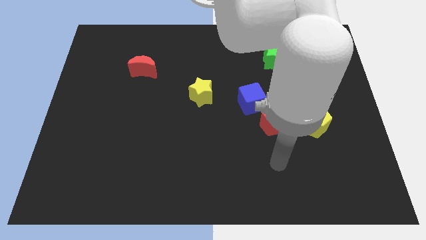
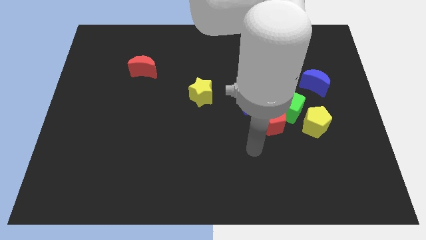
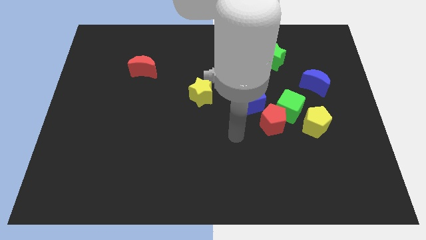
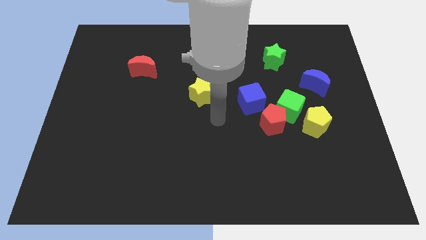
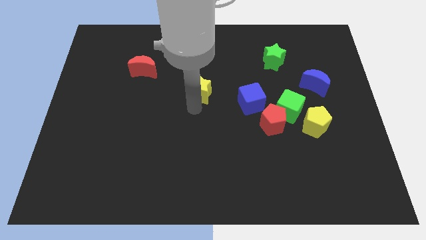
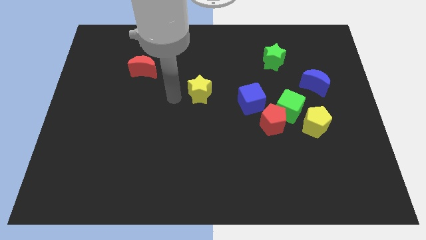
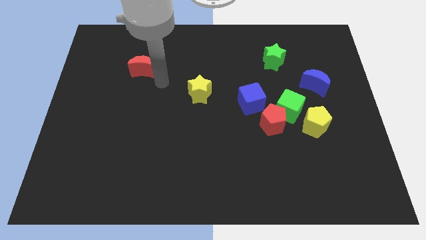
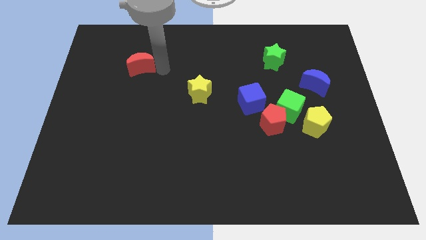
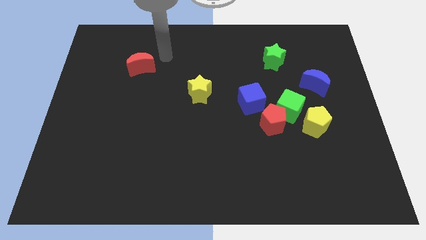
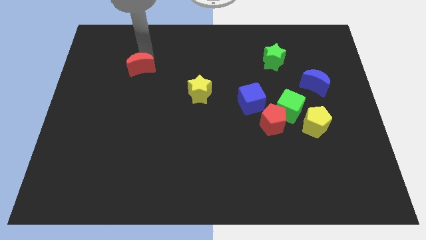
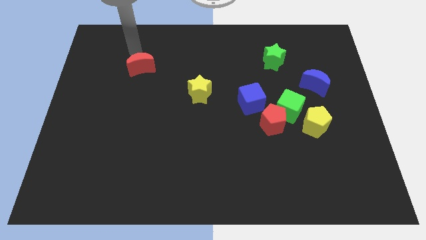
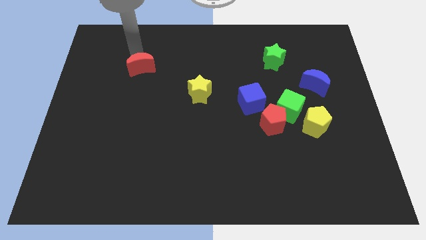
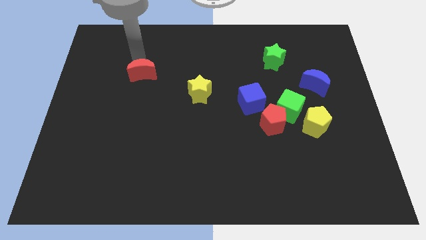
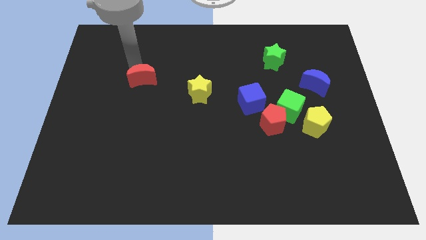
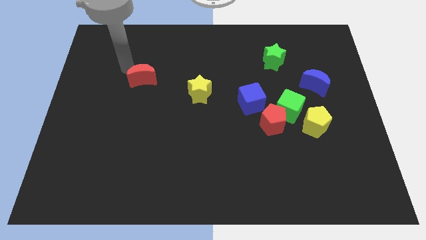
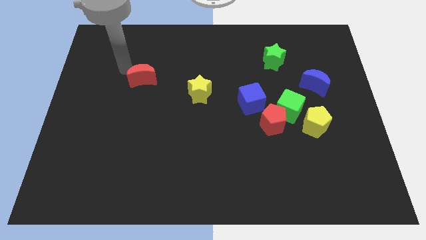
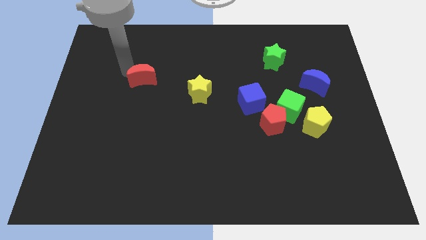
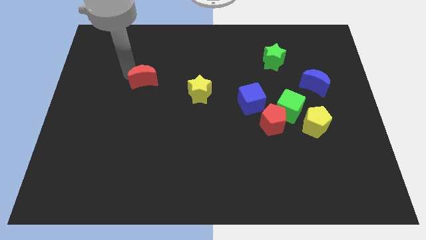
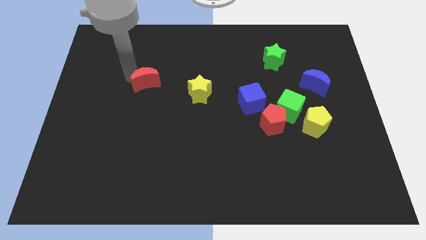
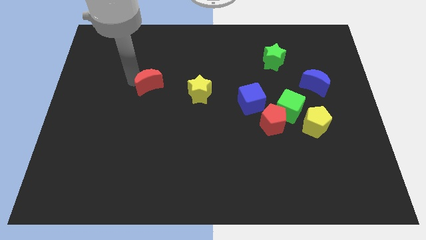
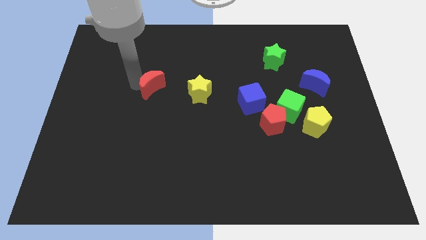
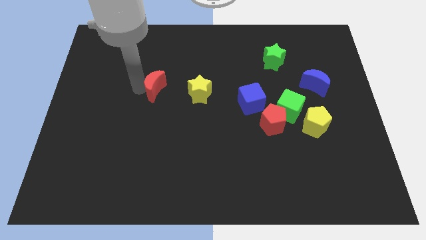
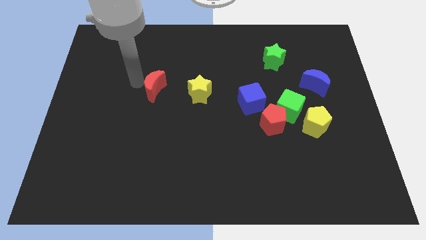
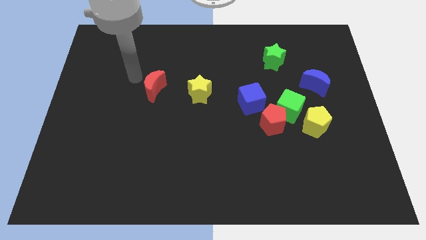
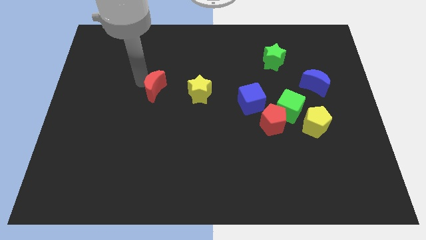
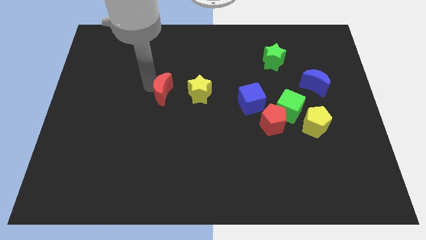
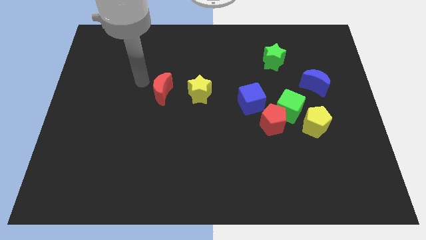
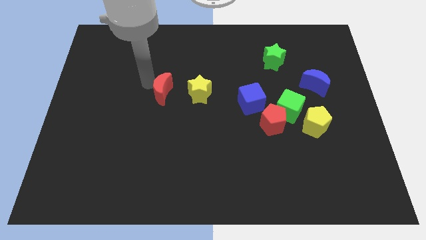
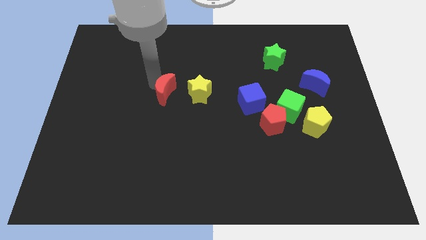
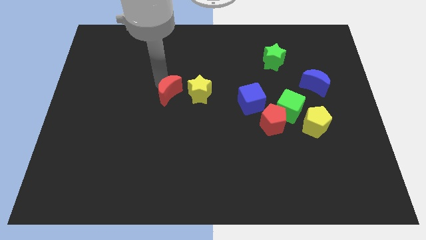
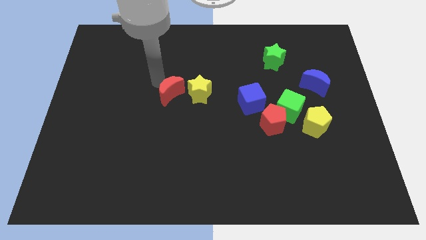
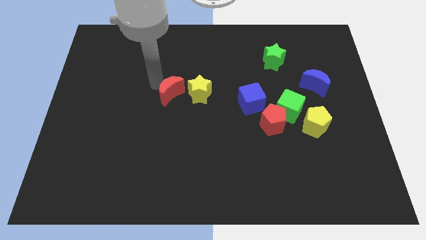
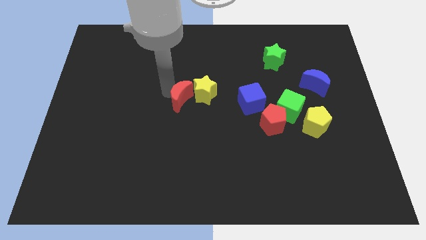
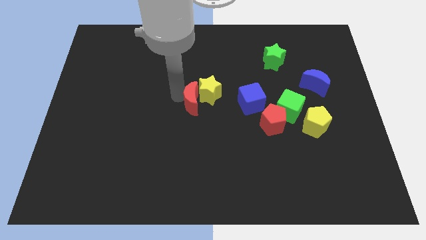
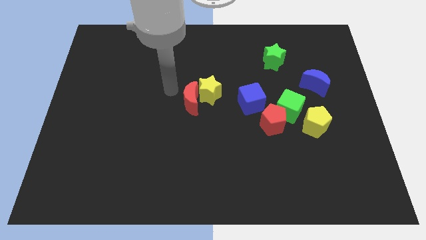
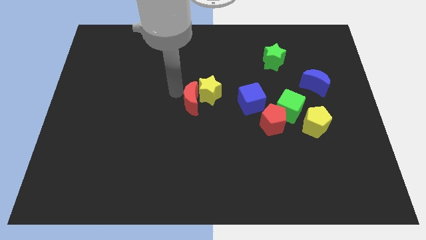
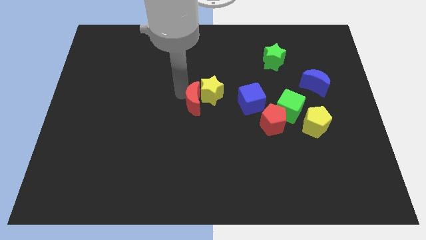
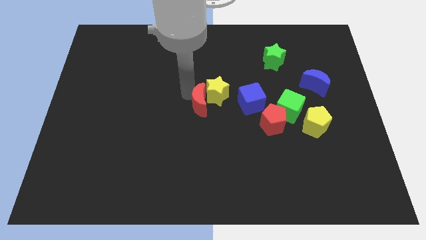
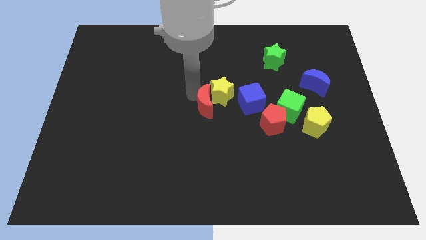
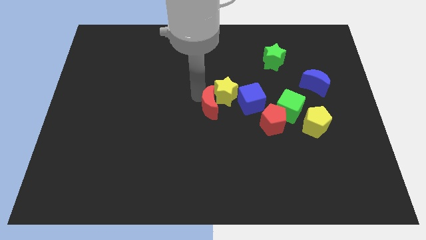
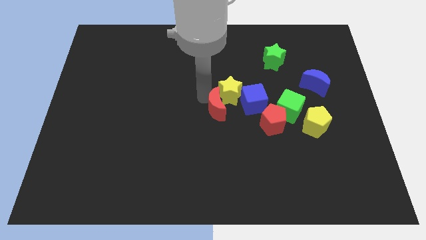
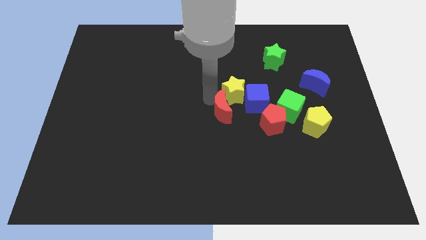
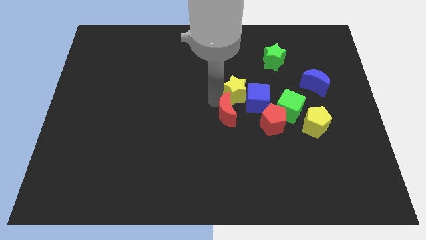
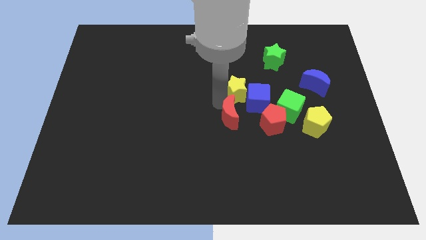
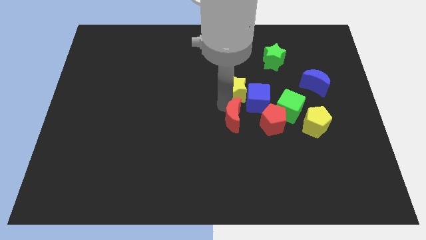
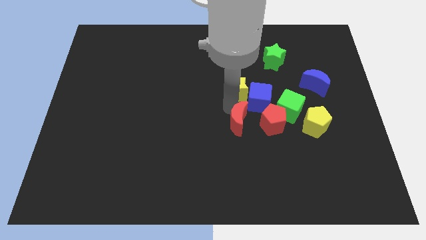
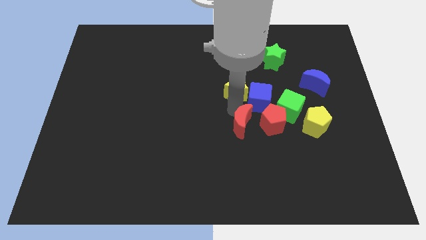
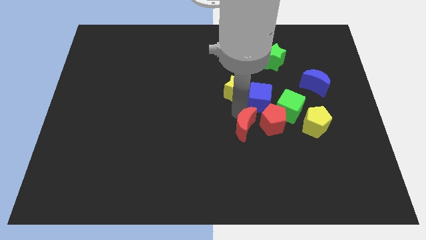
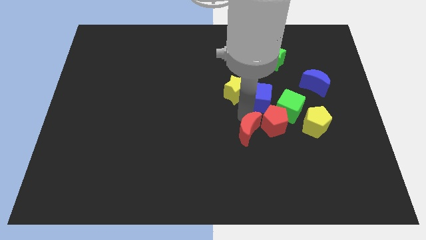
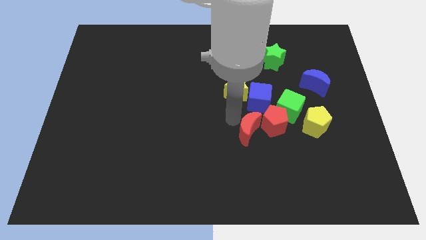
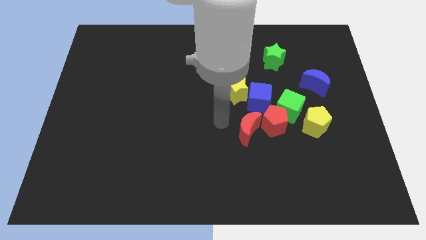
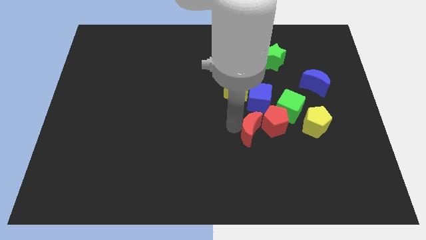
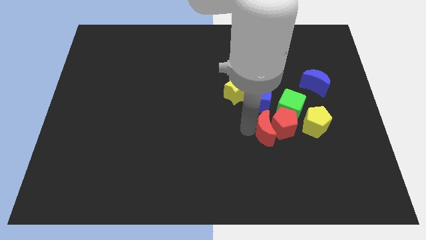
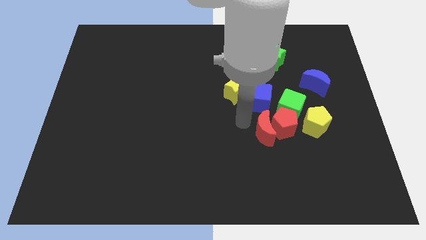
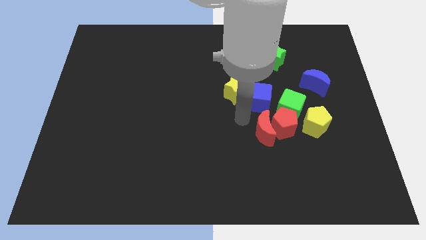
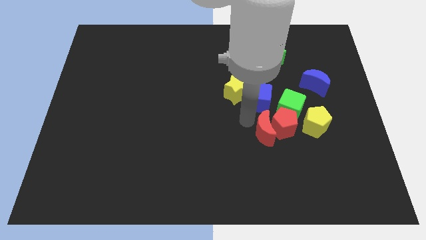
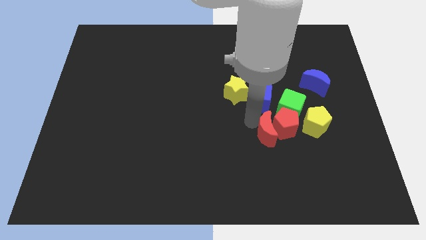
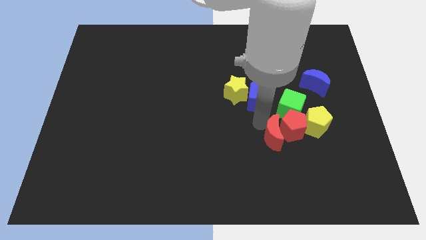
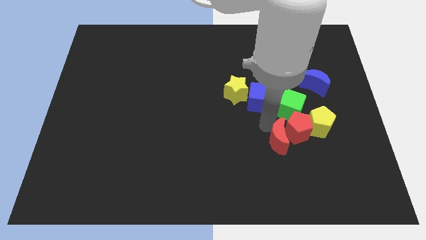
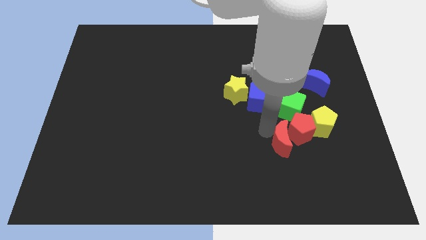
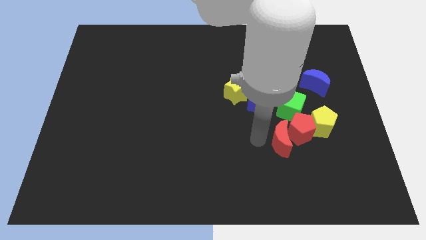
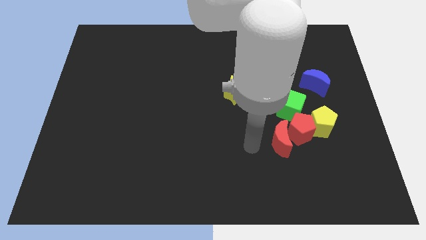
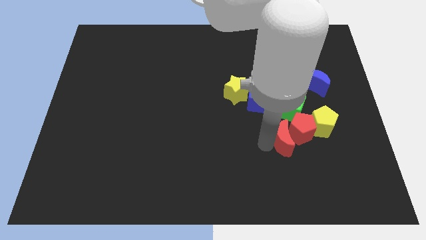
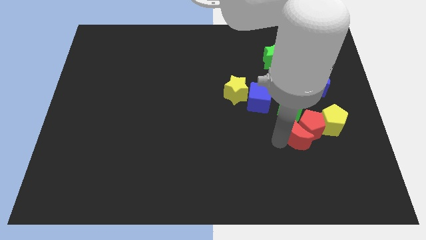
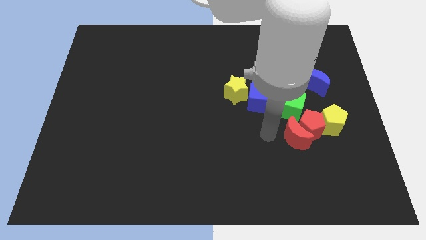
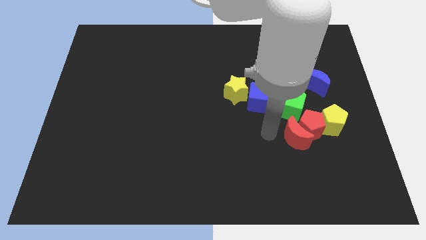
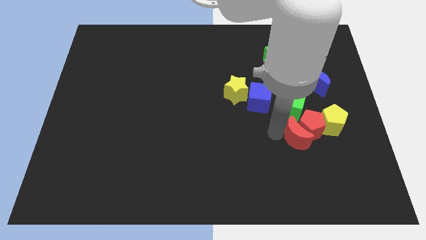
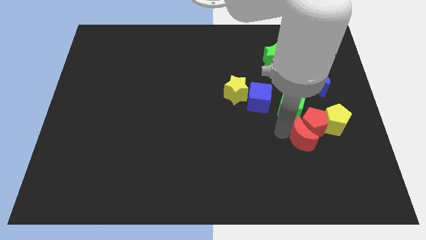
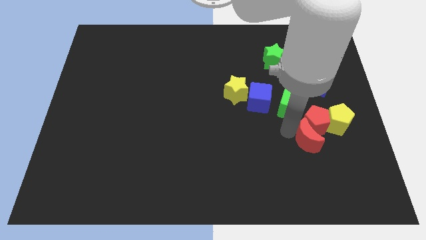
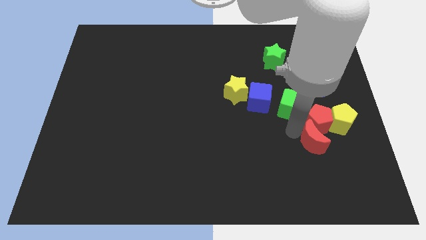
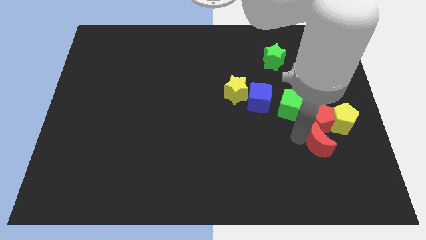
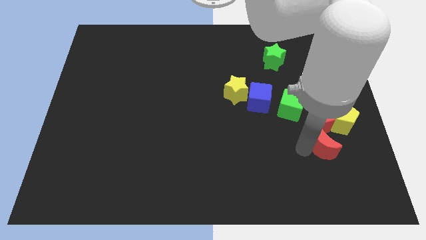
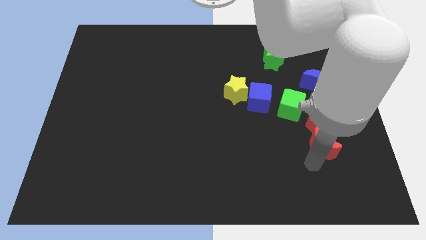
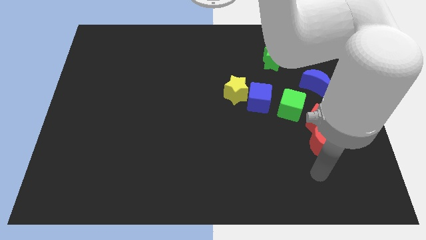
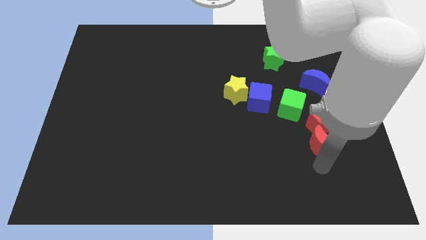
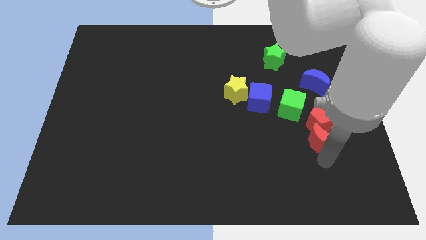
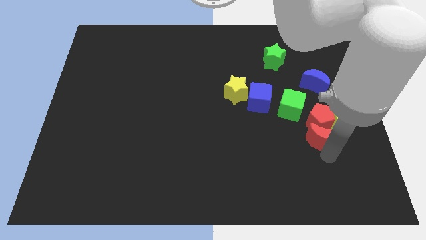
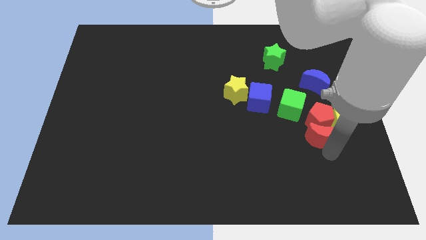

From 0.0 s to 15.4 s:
move the red moon to the bottom of the blue moon
